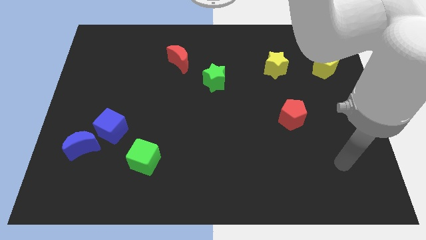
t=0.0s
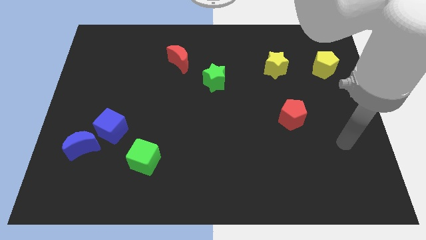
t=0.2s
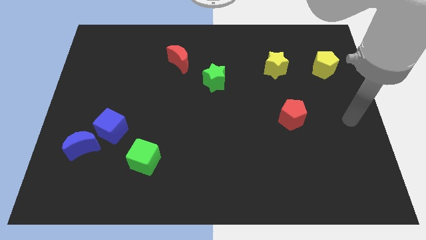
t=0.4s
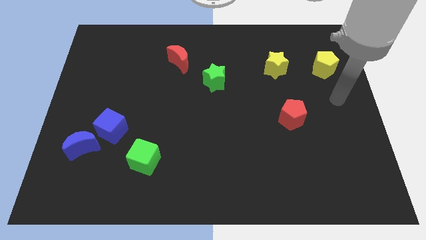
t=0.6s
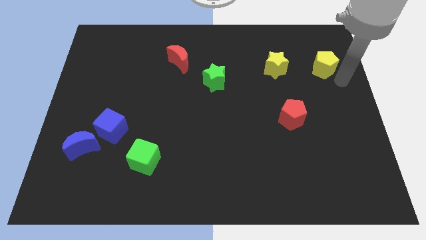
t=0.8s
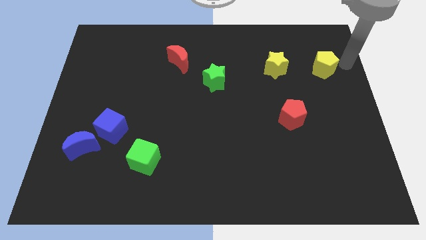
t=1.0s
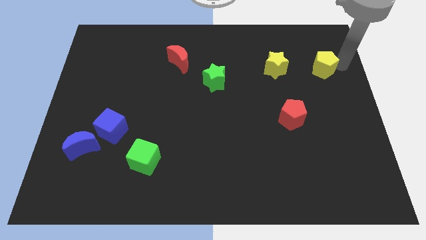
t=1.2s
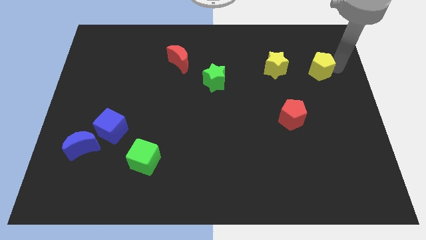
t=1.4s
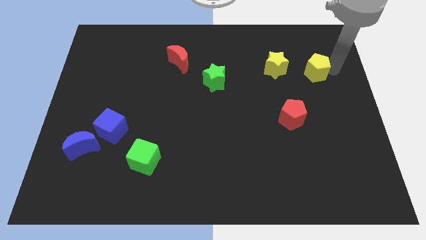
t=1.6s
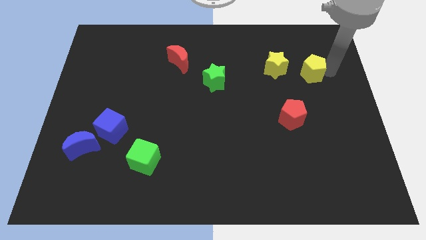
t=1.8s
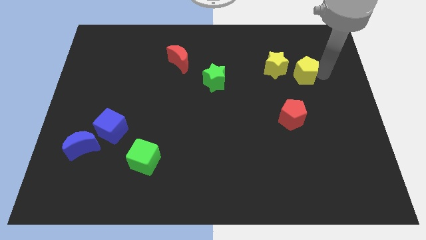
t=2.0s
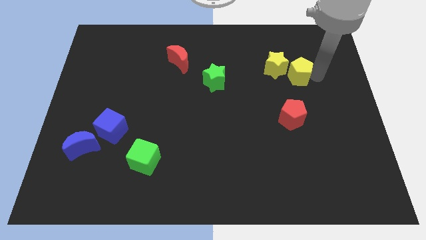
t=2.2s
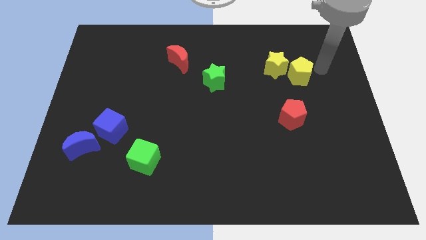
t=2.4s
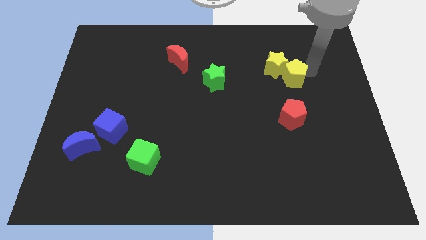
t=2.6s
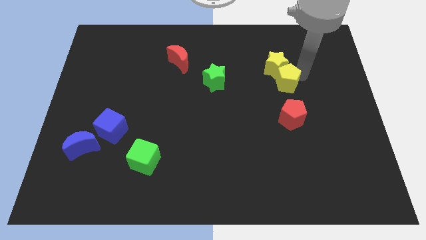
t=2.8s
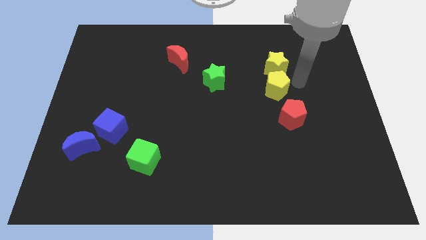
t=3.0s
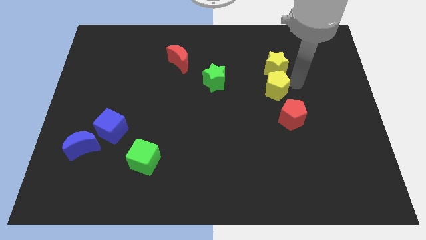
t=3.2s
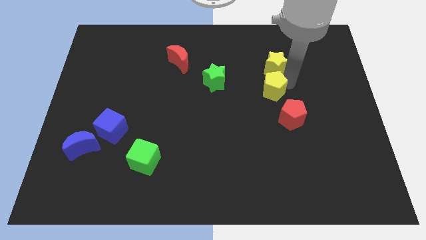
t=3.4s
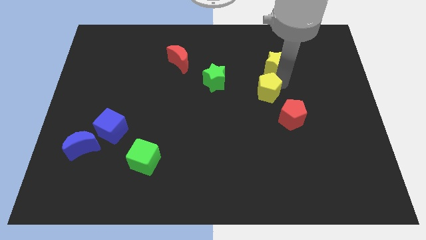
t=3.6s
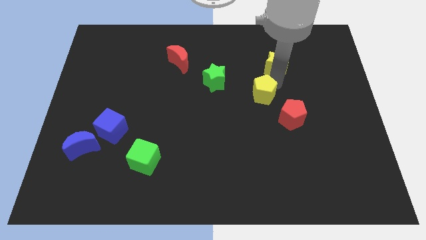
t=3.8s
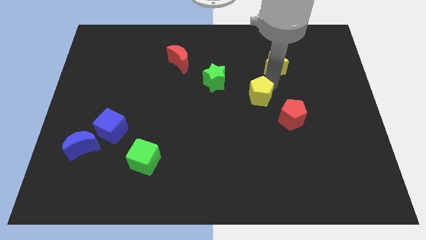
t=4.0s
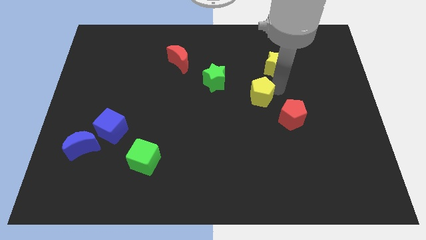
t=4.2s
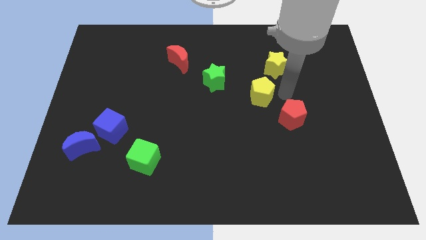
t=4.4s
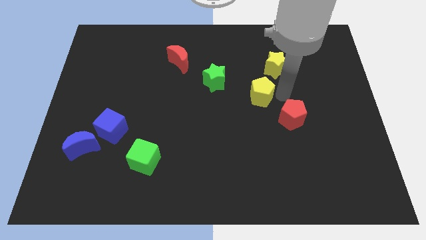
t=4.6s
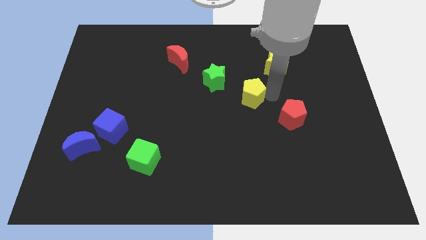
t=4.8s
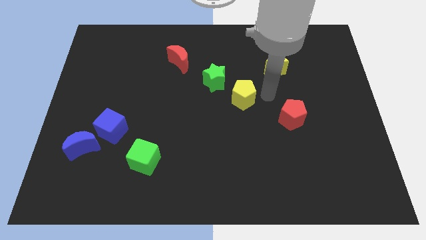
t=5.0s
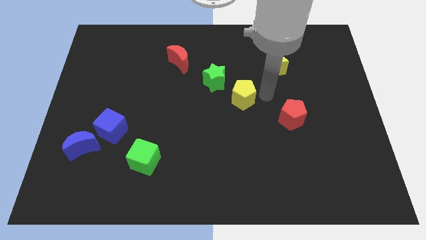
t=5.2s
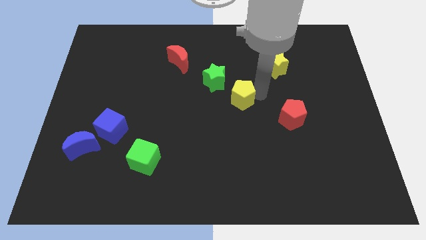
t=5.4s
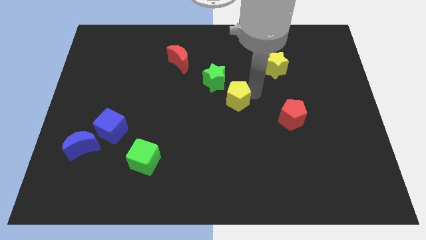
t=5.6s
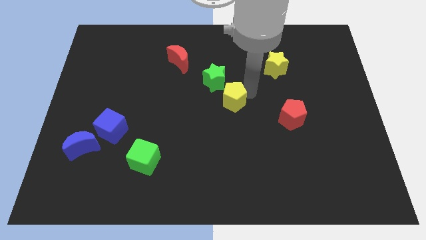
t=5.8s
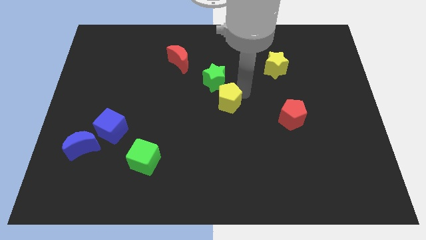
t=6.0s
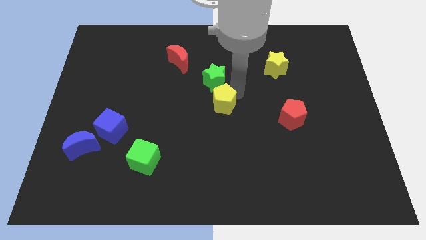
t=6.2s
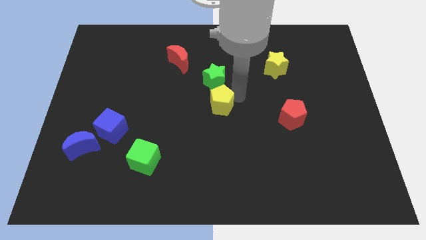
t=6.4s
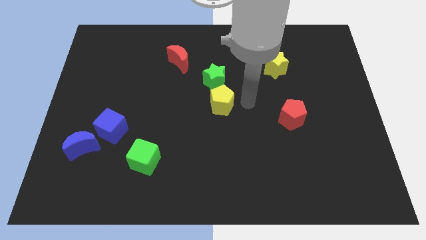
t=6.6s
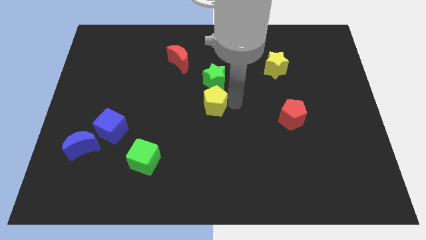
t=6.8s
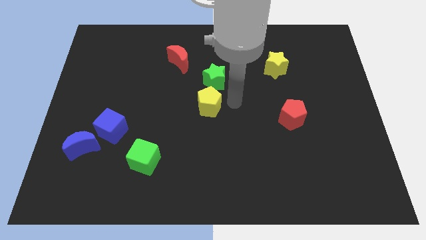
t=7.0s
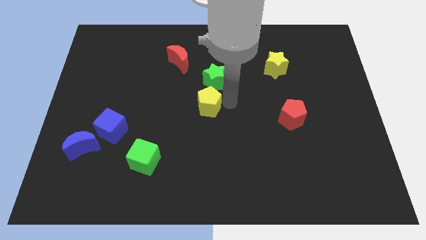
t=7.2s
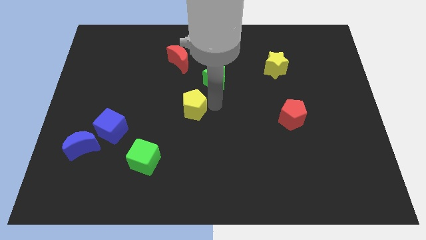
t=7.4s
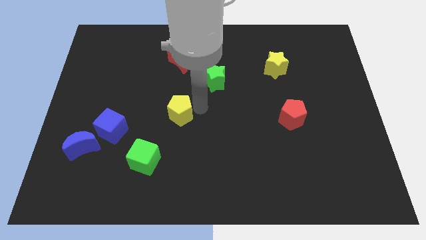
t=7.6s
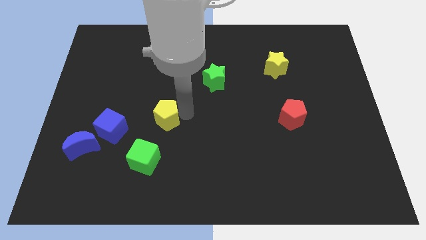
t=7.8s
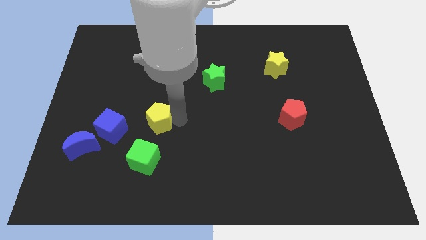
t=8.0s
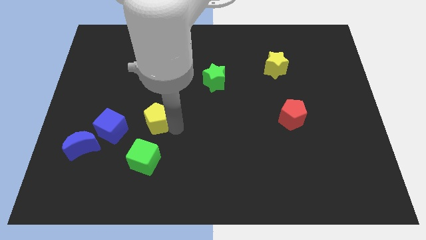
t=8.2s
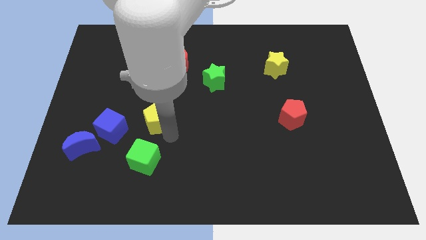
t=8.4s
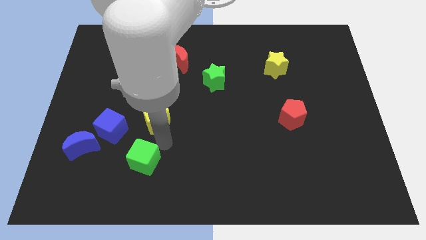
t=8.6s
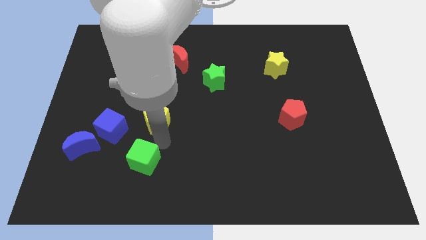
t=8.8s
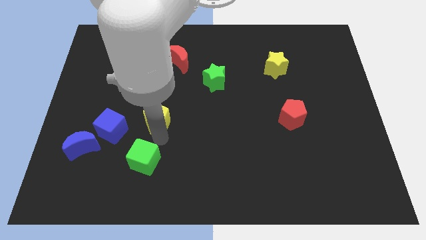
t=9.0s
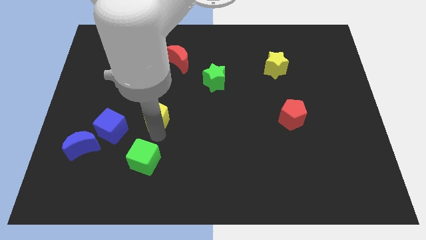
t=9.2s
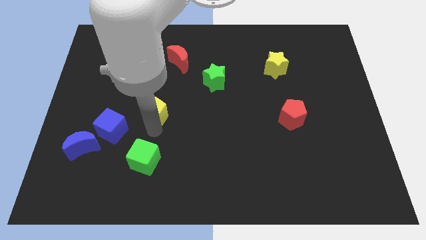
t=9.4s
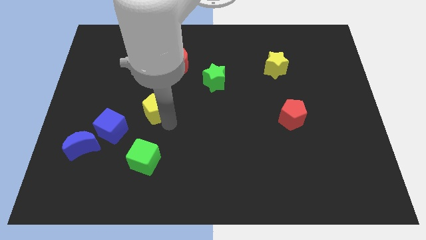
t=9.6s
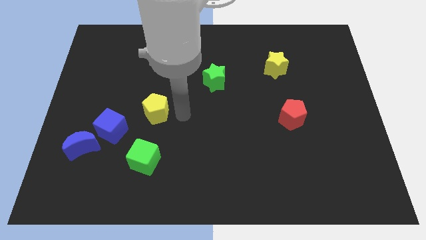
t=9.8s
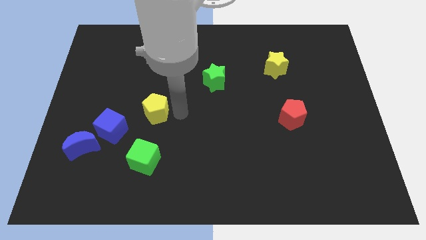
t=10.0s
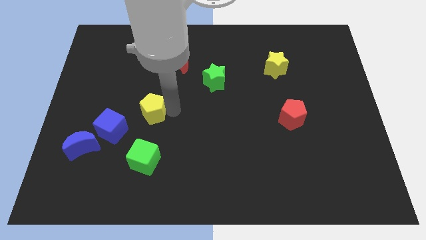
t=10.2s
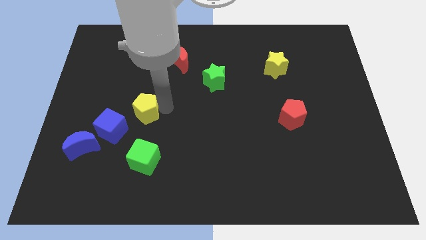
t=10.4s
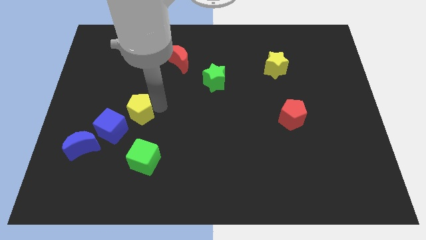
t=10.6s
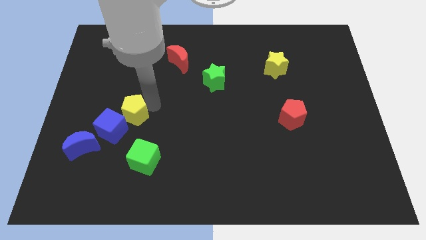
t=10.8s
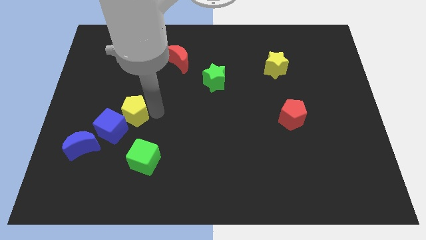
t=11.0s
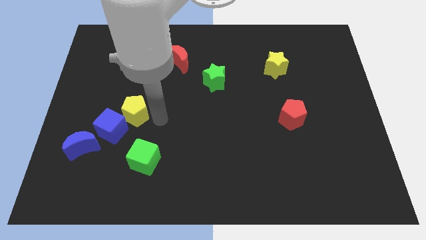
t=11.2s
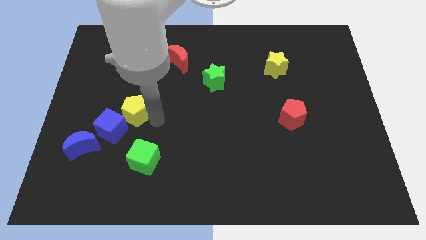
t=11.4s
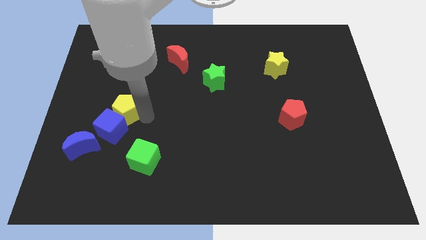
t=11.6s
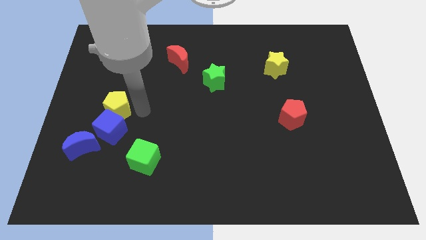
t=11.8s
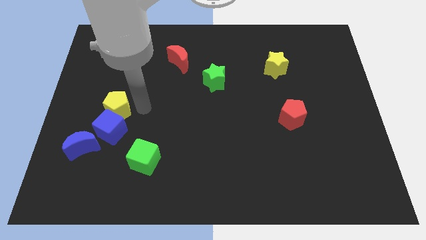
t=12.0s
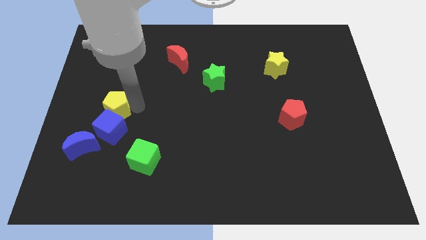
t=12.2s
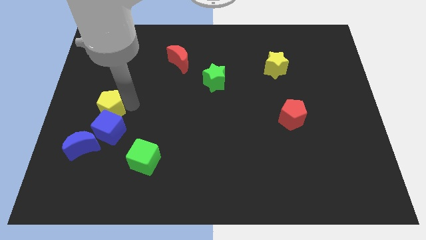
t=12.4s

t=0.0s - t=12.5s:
put the yellow pentagon to the top of the blue moon

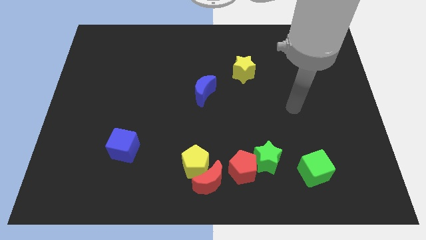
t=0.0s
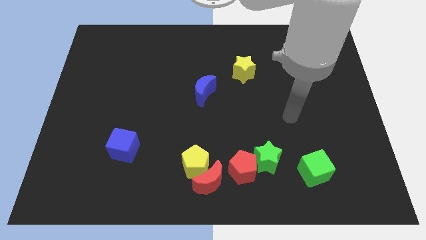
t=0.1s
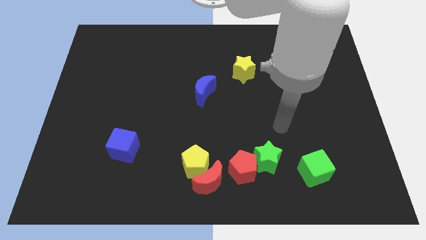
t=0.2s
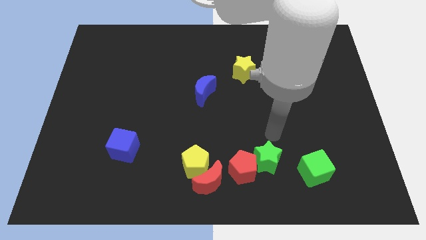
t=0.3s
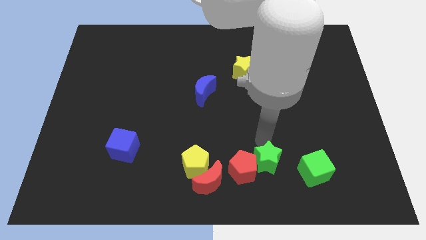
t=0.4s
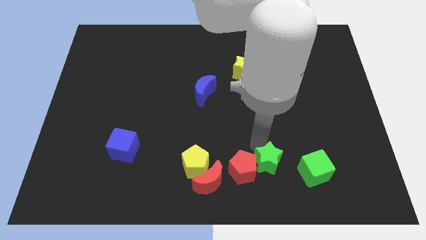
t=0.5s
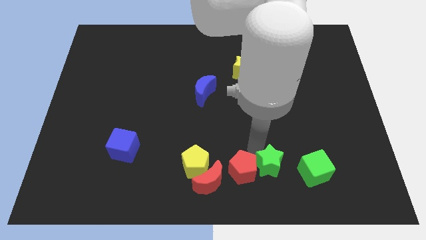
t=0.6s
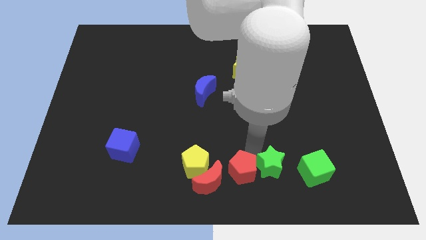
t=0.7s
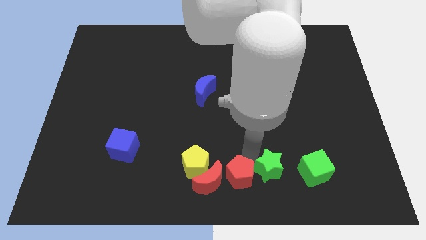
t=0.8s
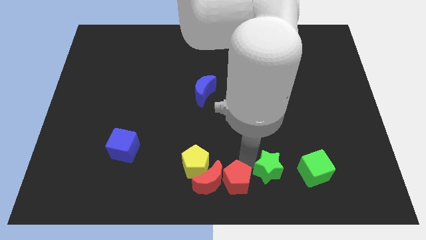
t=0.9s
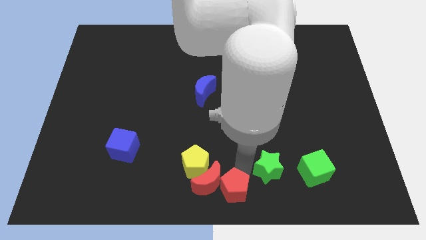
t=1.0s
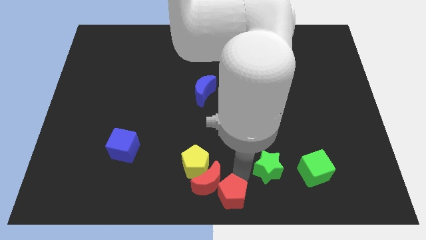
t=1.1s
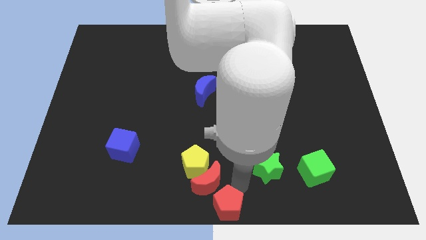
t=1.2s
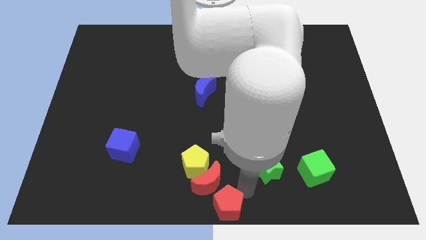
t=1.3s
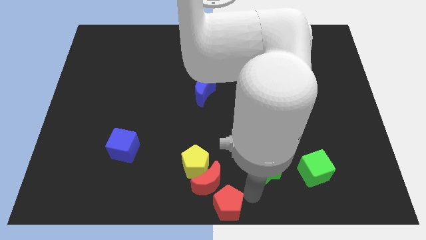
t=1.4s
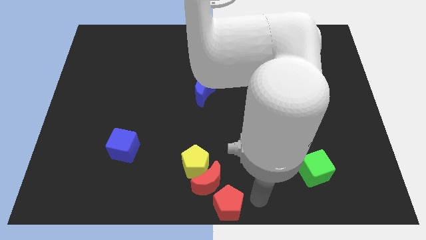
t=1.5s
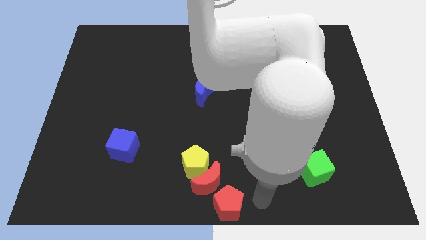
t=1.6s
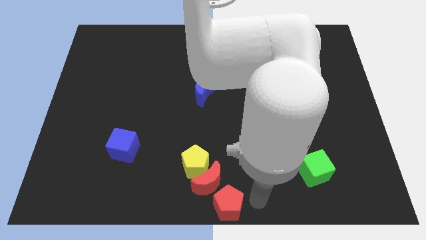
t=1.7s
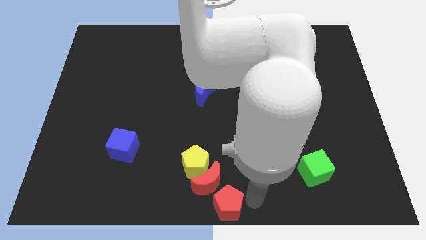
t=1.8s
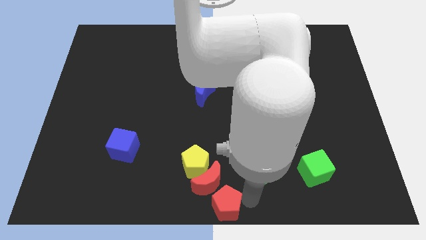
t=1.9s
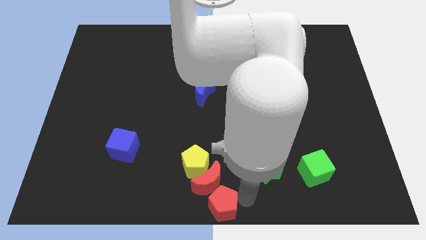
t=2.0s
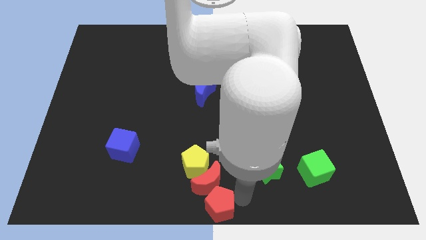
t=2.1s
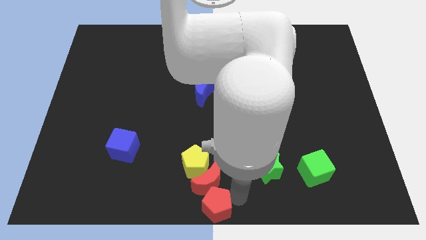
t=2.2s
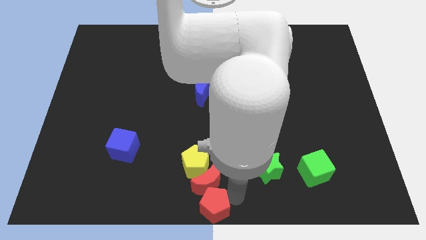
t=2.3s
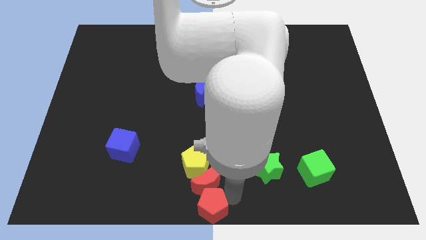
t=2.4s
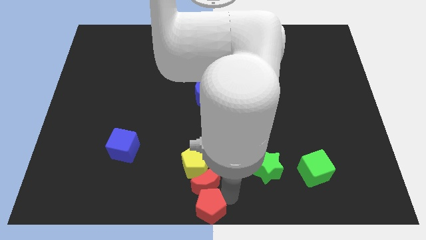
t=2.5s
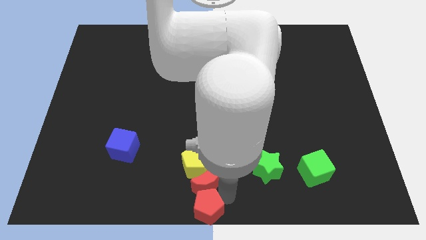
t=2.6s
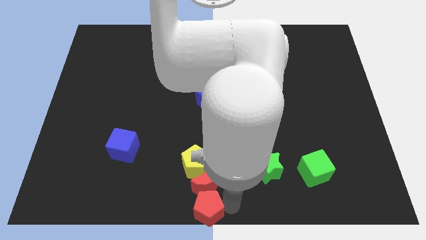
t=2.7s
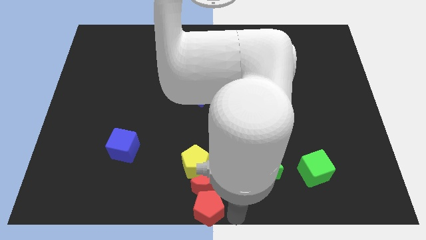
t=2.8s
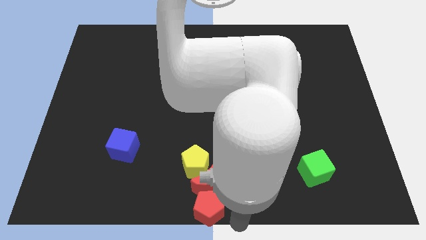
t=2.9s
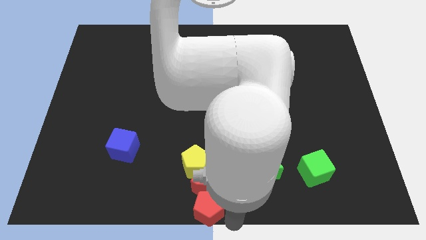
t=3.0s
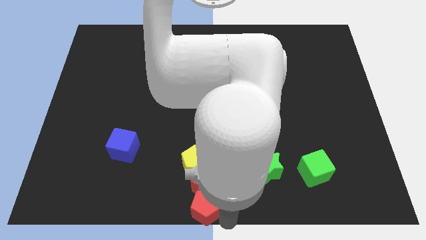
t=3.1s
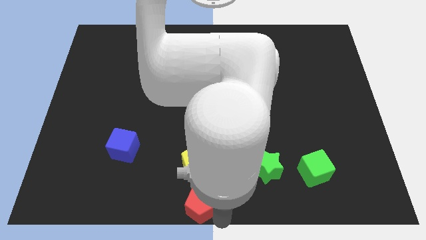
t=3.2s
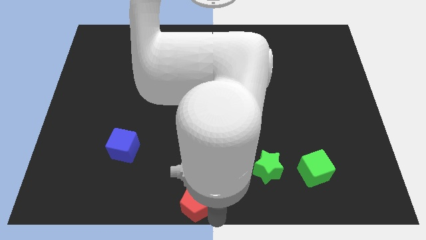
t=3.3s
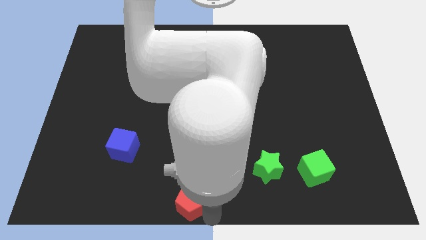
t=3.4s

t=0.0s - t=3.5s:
slide the red pentagon just left of the red moon
